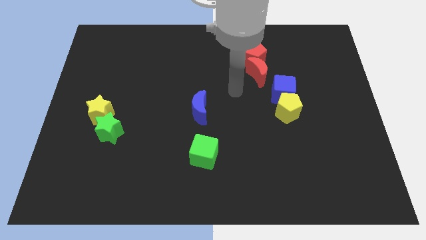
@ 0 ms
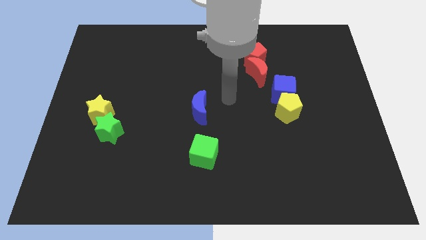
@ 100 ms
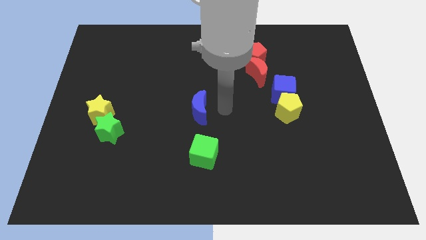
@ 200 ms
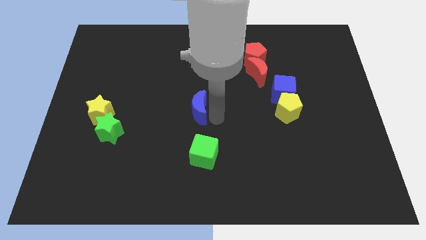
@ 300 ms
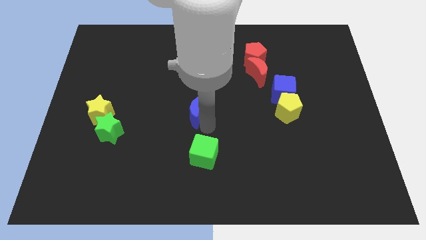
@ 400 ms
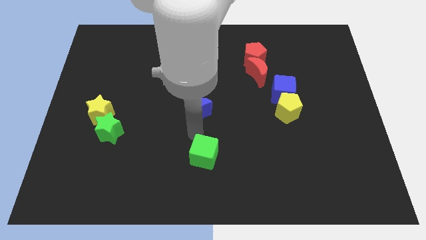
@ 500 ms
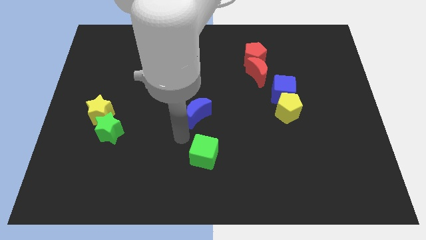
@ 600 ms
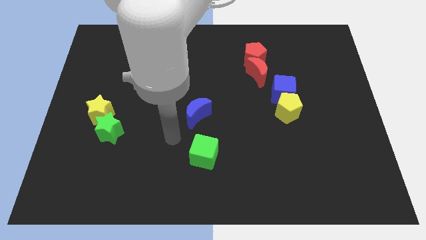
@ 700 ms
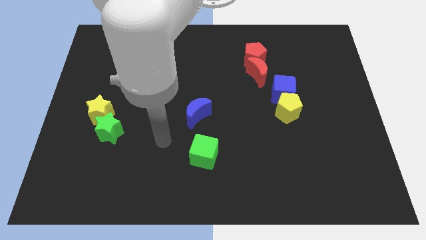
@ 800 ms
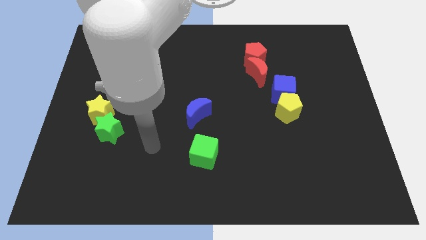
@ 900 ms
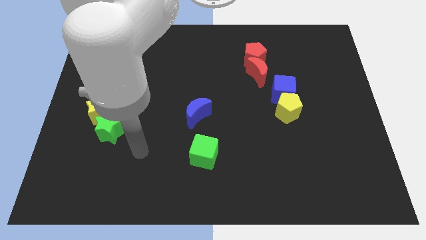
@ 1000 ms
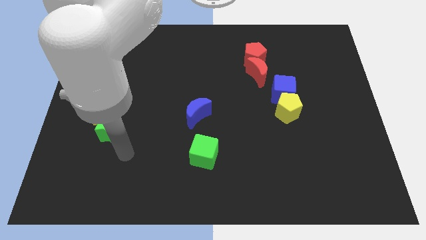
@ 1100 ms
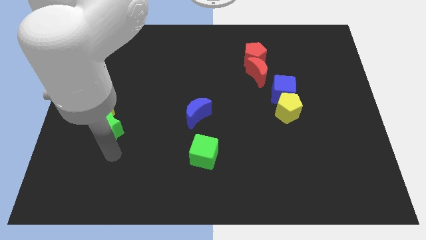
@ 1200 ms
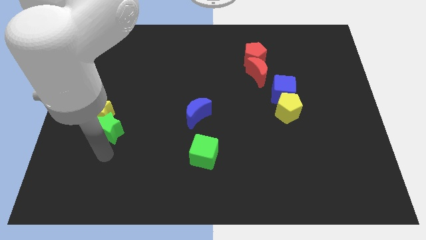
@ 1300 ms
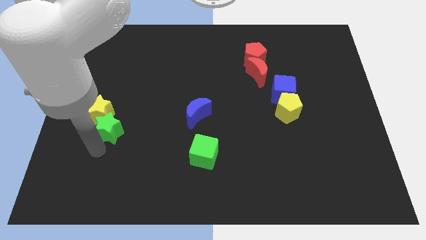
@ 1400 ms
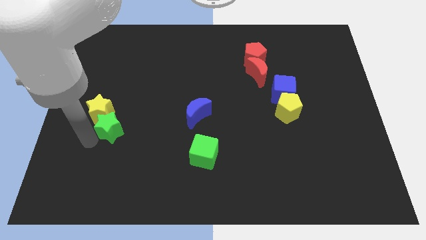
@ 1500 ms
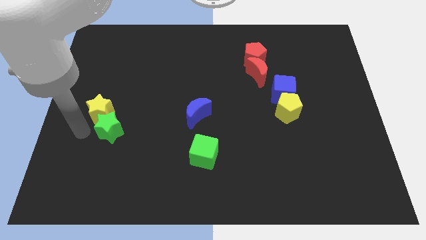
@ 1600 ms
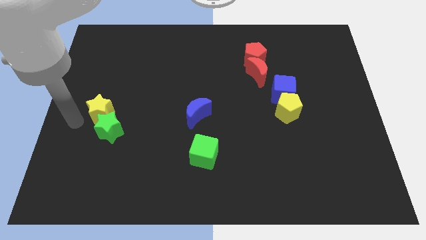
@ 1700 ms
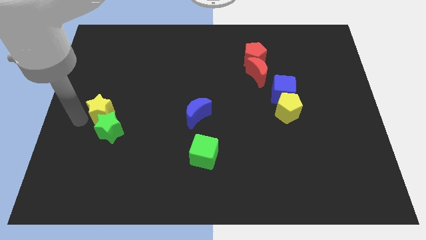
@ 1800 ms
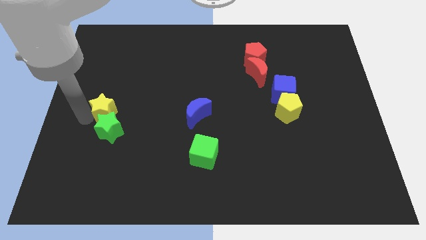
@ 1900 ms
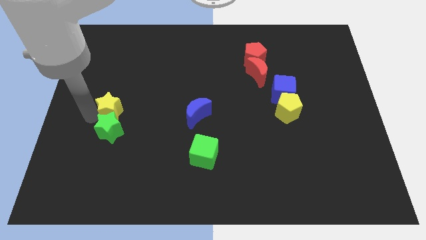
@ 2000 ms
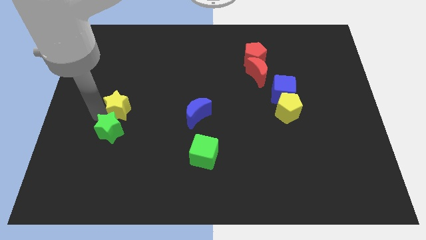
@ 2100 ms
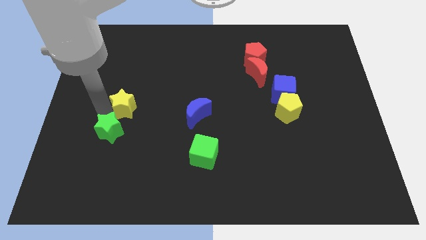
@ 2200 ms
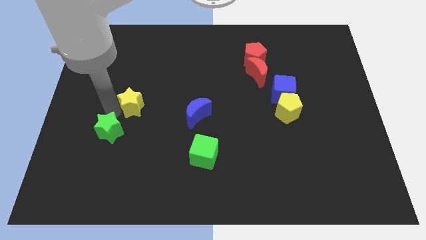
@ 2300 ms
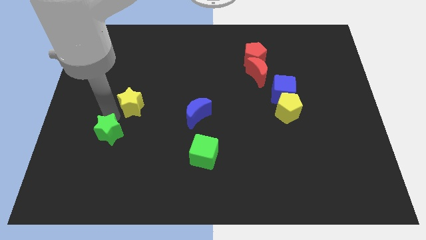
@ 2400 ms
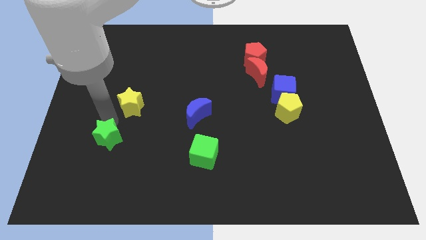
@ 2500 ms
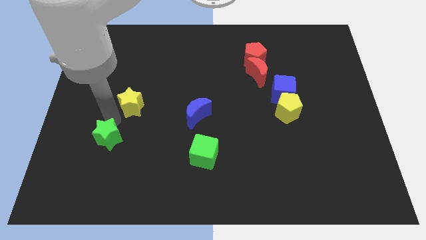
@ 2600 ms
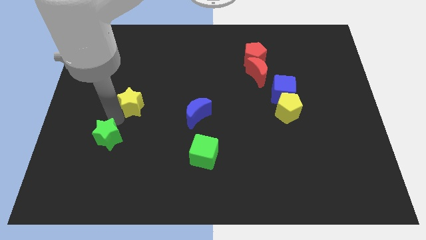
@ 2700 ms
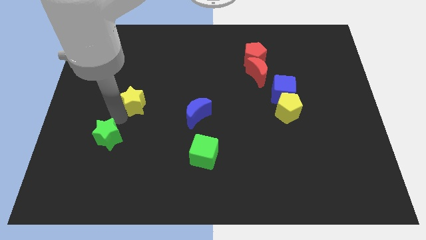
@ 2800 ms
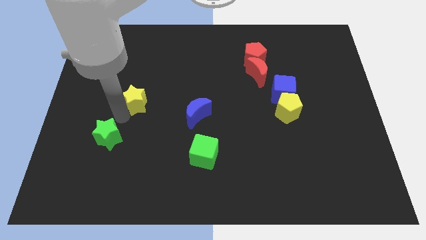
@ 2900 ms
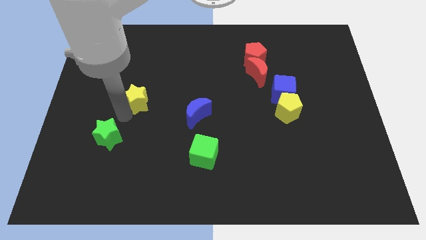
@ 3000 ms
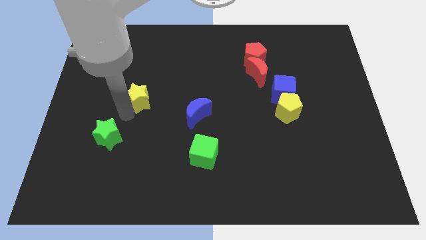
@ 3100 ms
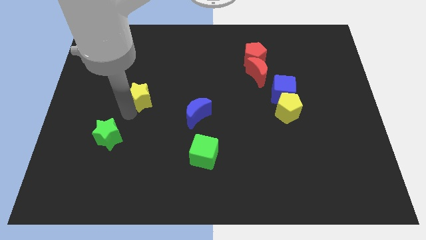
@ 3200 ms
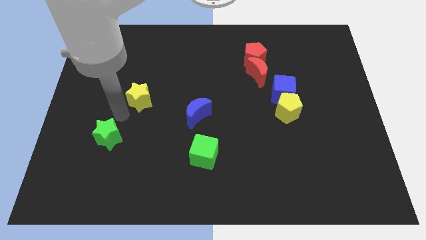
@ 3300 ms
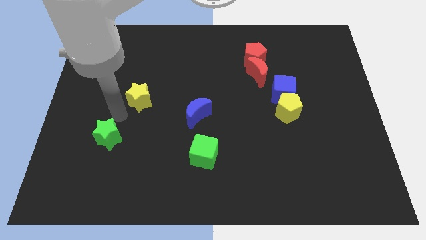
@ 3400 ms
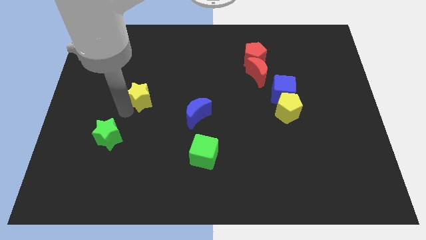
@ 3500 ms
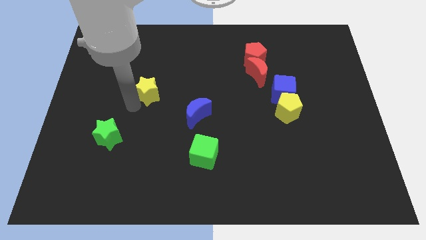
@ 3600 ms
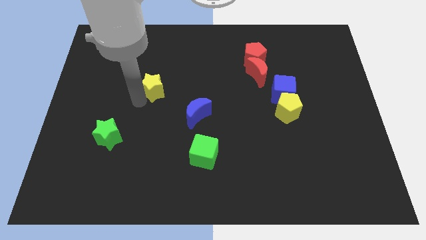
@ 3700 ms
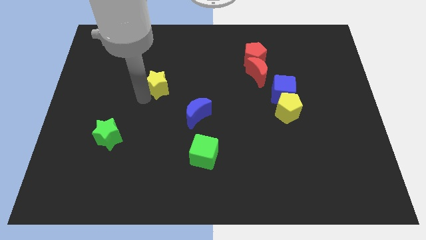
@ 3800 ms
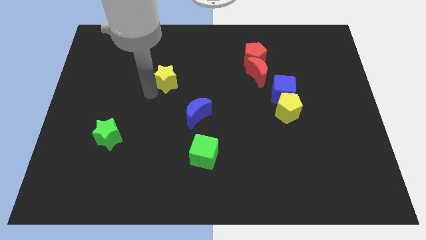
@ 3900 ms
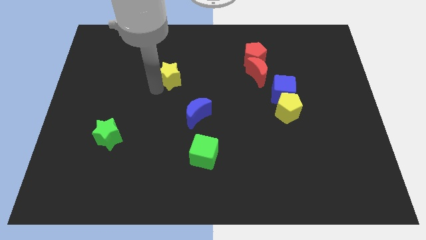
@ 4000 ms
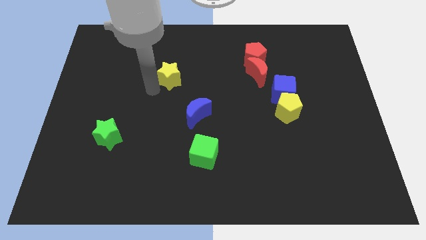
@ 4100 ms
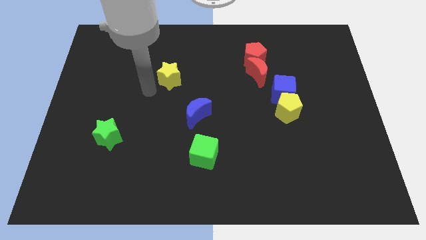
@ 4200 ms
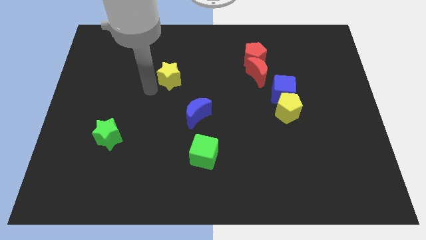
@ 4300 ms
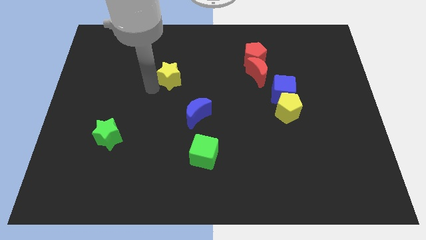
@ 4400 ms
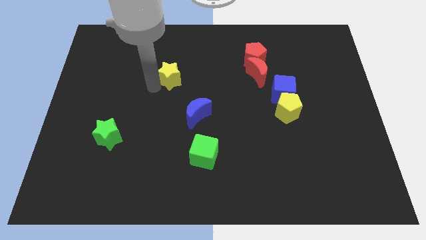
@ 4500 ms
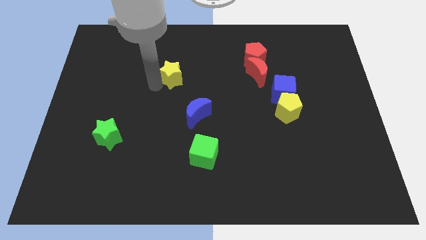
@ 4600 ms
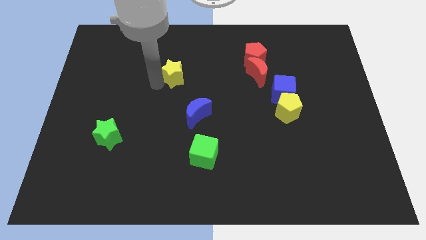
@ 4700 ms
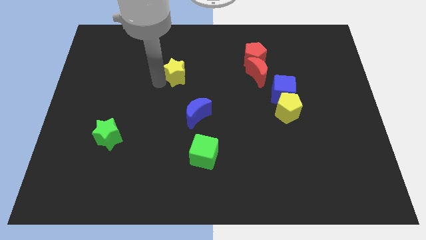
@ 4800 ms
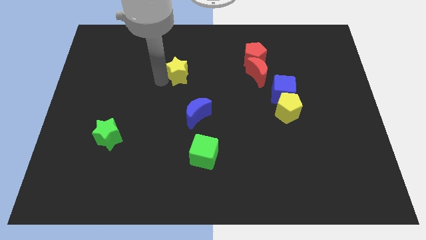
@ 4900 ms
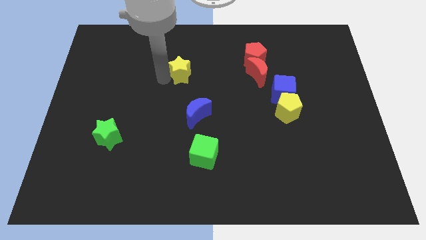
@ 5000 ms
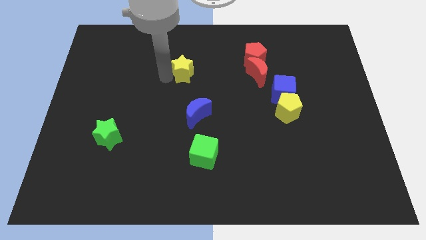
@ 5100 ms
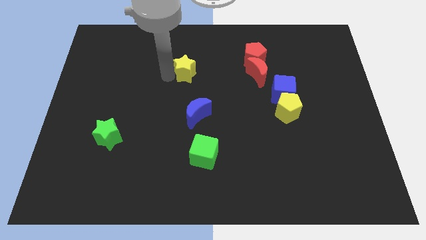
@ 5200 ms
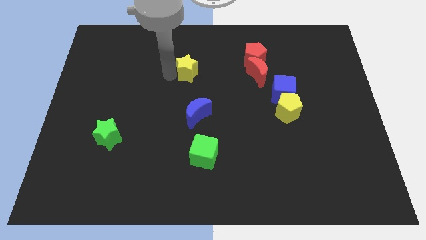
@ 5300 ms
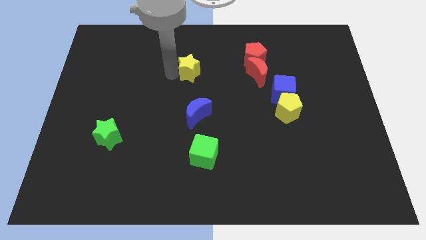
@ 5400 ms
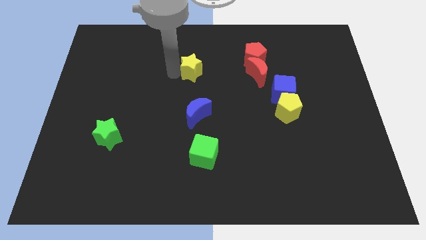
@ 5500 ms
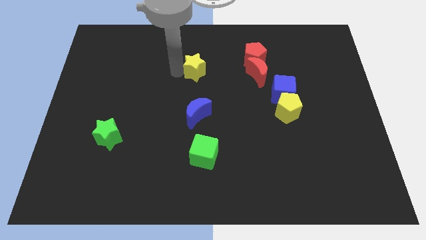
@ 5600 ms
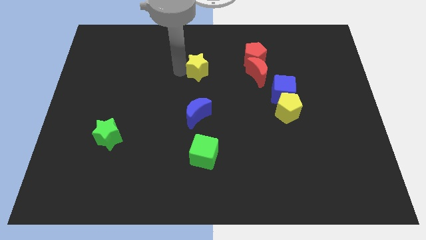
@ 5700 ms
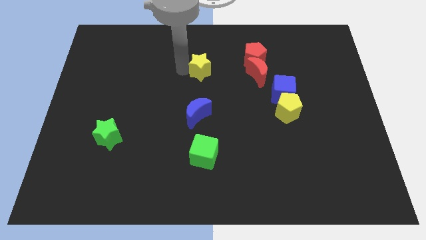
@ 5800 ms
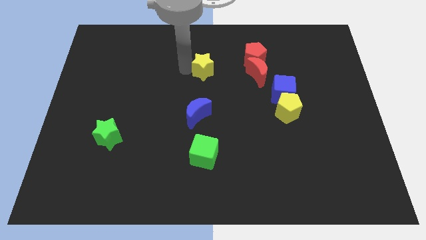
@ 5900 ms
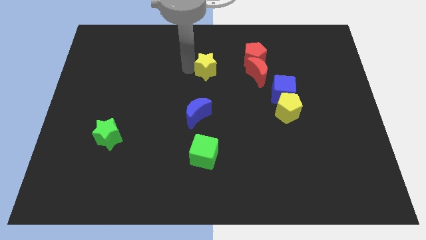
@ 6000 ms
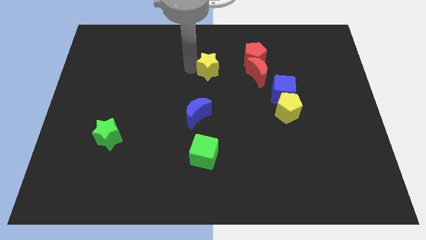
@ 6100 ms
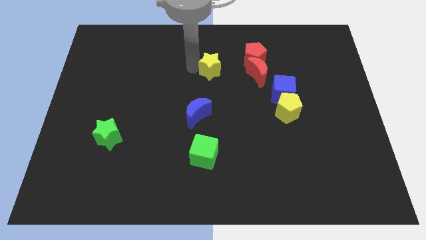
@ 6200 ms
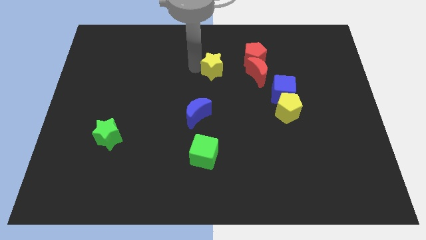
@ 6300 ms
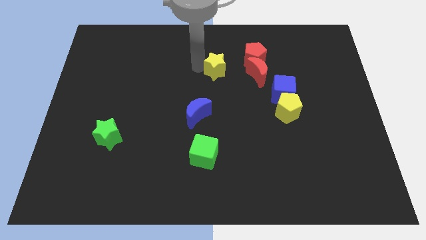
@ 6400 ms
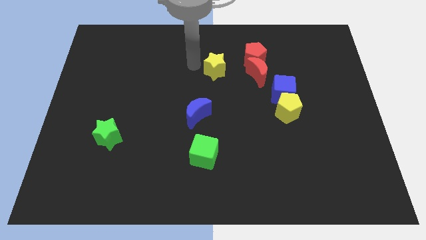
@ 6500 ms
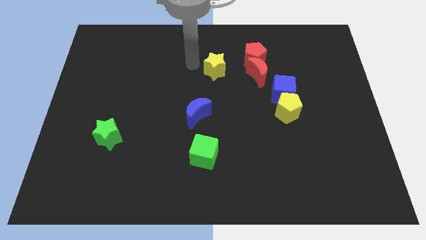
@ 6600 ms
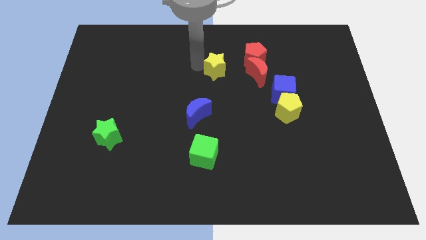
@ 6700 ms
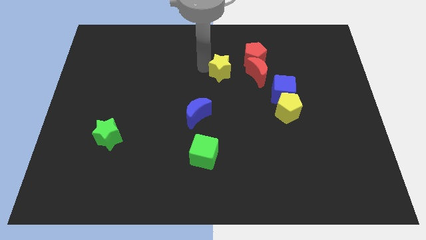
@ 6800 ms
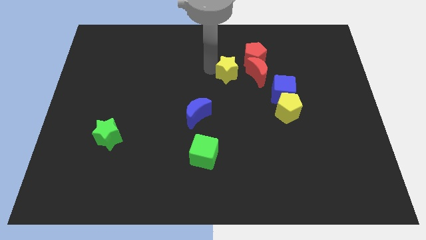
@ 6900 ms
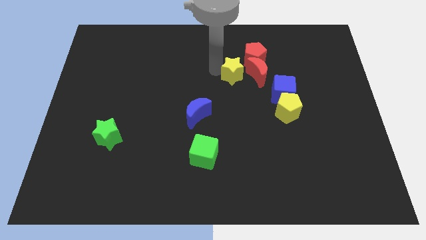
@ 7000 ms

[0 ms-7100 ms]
put the yellow star next to the red moon

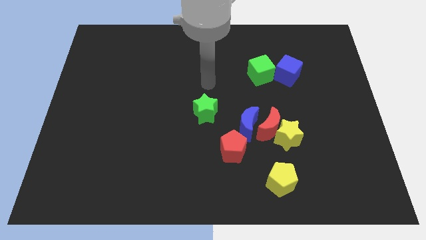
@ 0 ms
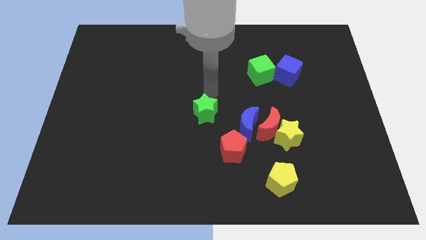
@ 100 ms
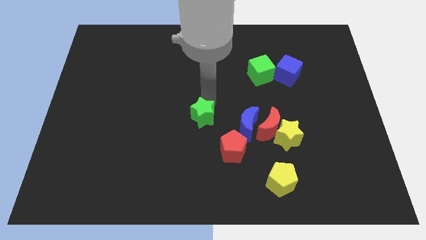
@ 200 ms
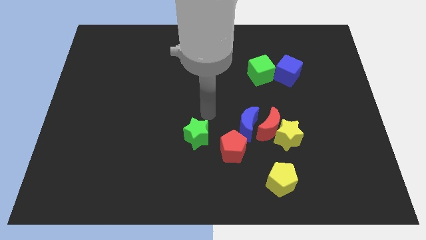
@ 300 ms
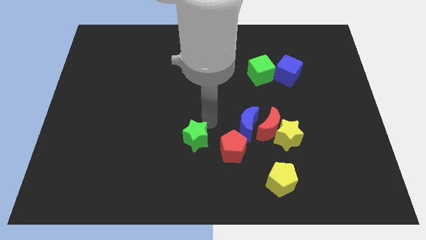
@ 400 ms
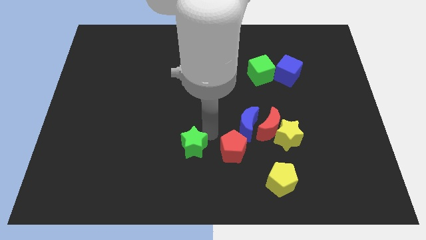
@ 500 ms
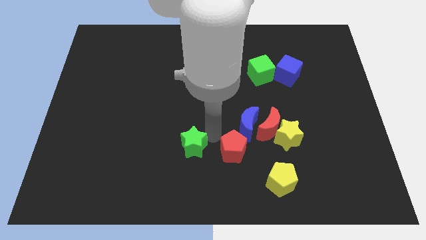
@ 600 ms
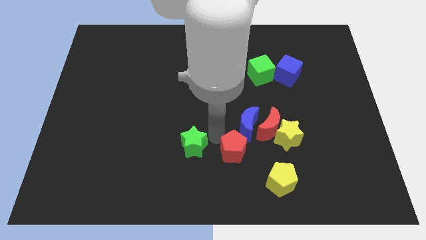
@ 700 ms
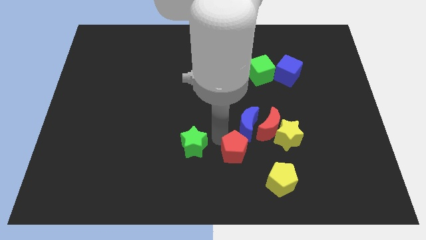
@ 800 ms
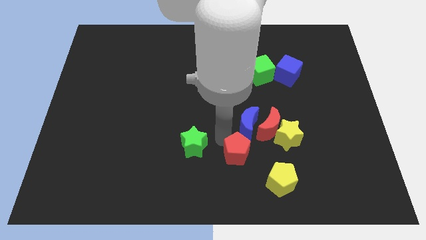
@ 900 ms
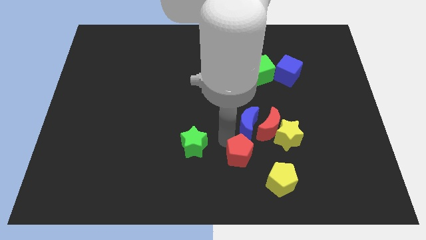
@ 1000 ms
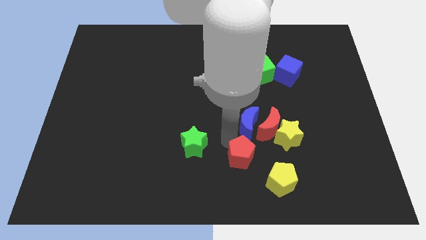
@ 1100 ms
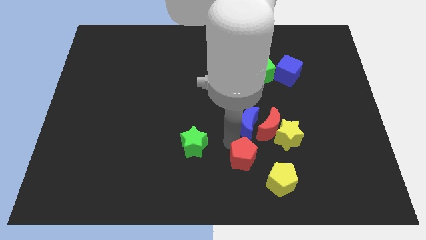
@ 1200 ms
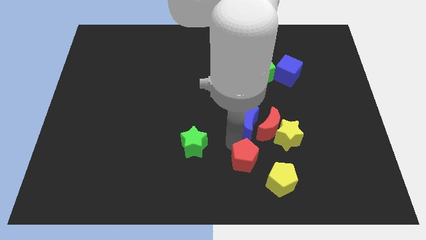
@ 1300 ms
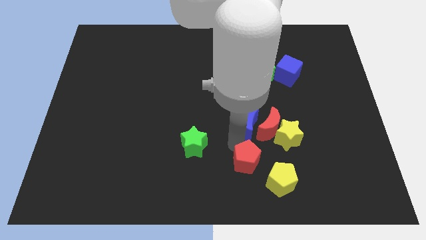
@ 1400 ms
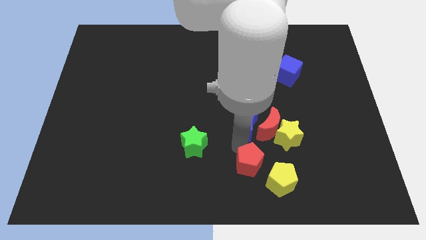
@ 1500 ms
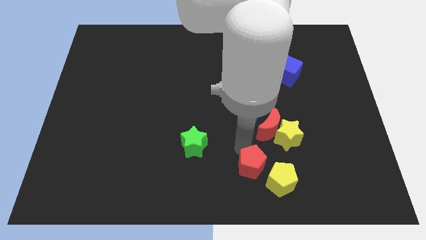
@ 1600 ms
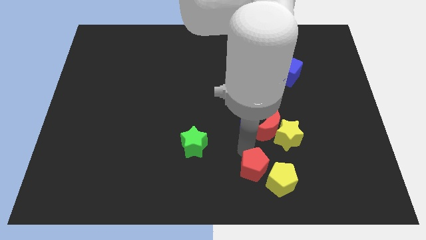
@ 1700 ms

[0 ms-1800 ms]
push the red pentagon to the yellow pentagon
